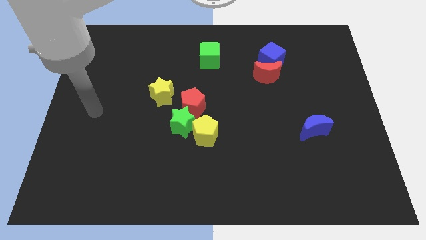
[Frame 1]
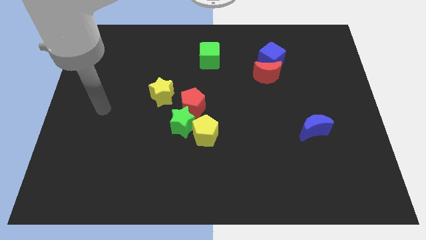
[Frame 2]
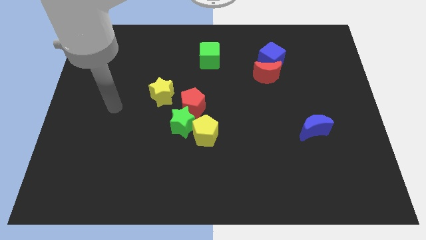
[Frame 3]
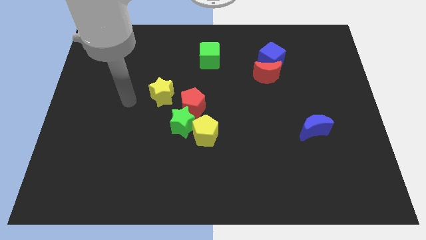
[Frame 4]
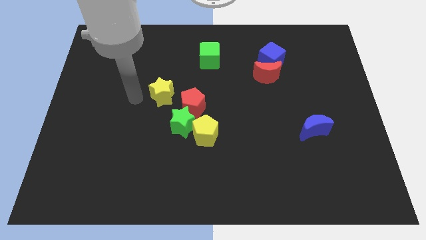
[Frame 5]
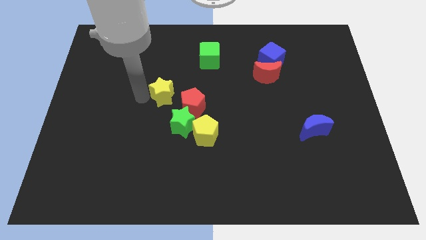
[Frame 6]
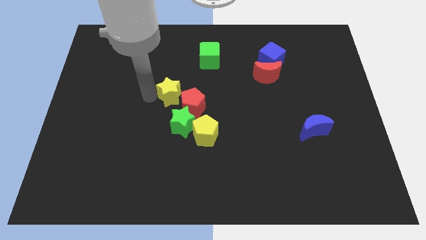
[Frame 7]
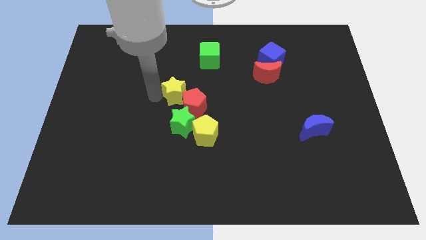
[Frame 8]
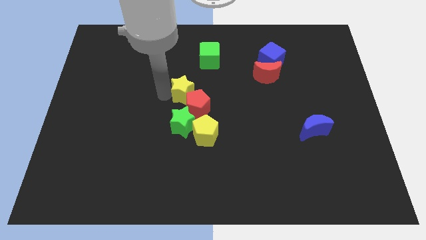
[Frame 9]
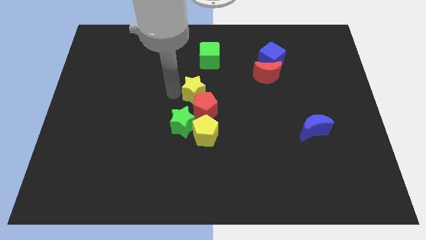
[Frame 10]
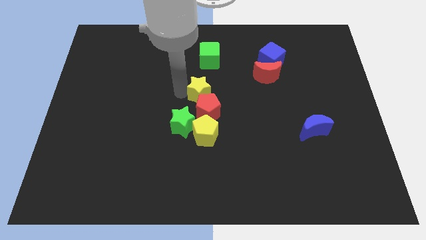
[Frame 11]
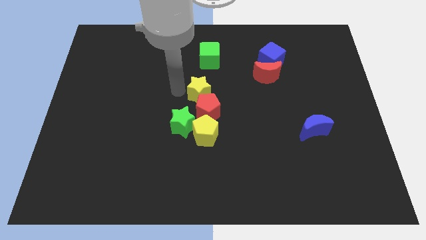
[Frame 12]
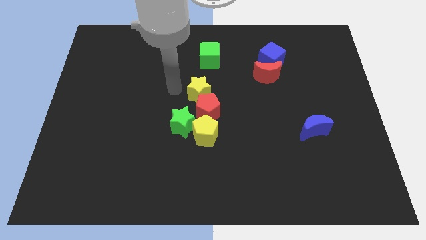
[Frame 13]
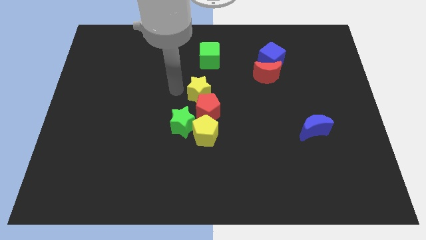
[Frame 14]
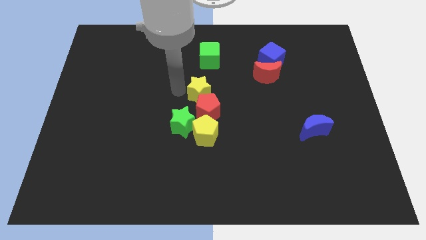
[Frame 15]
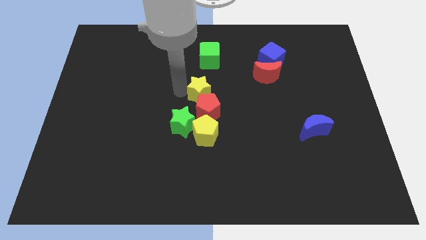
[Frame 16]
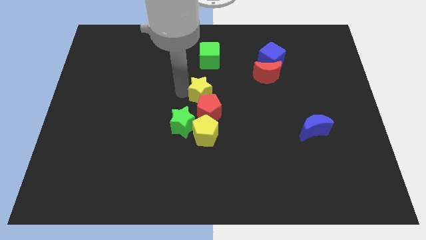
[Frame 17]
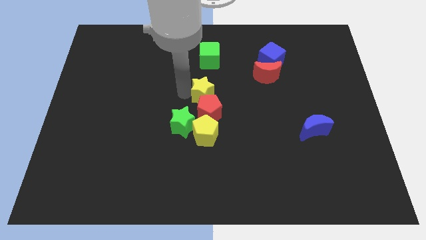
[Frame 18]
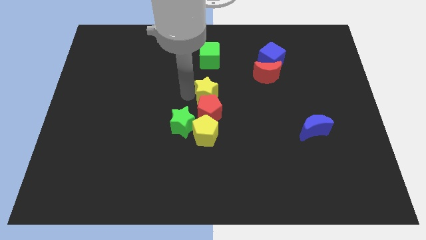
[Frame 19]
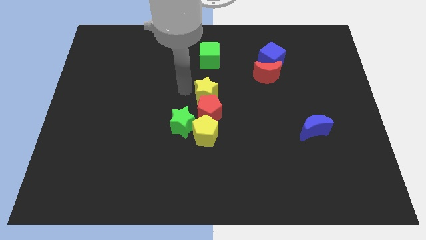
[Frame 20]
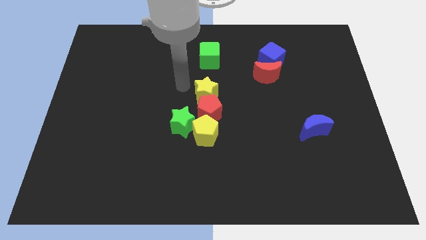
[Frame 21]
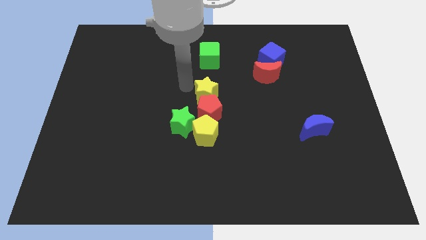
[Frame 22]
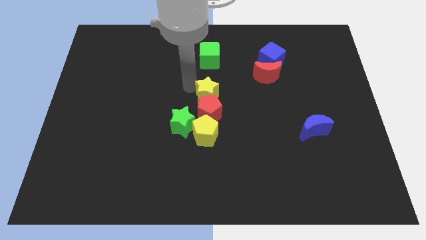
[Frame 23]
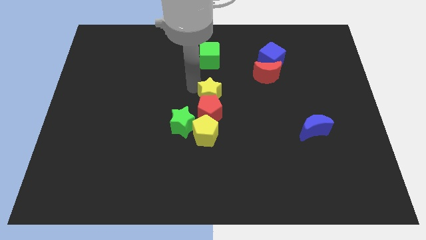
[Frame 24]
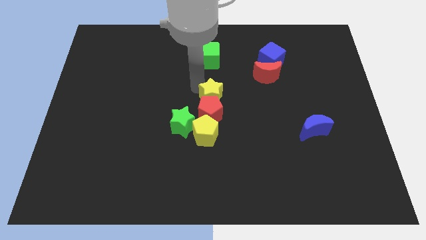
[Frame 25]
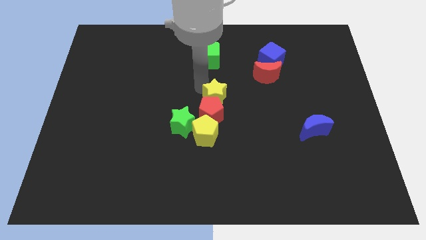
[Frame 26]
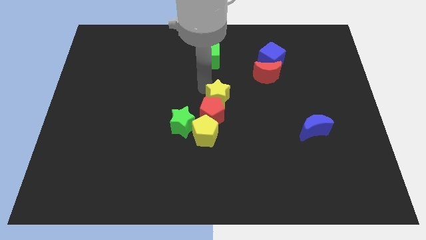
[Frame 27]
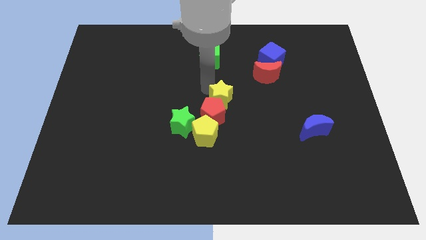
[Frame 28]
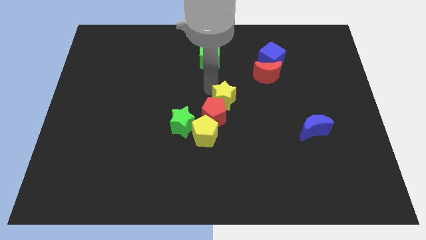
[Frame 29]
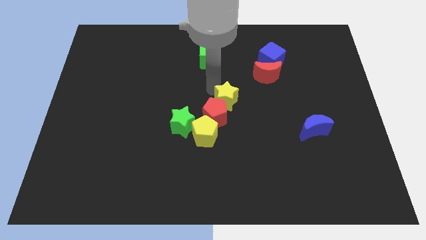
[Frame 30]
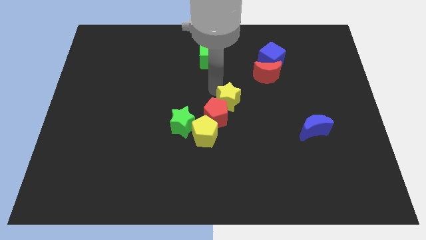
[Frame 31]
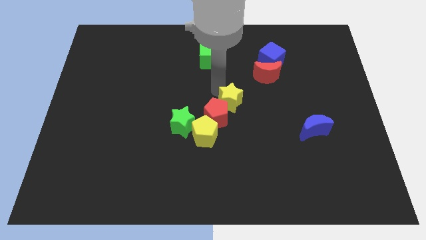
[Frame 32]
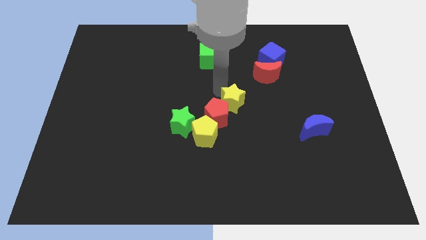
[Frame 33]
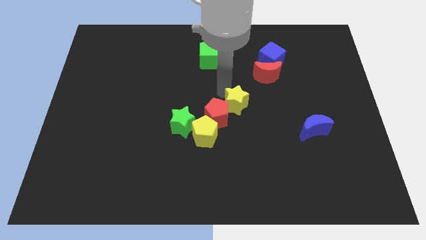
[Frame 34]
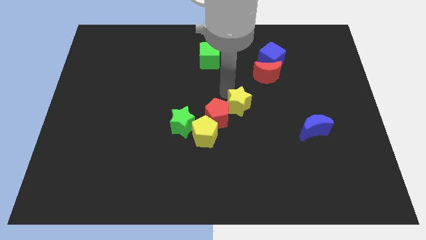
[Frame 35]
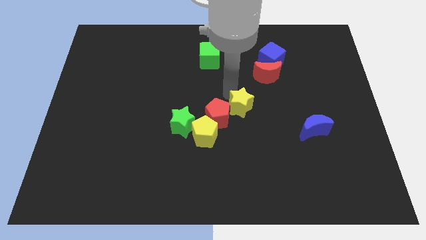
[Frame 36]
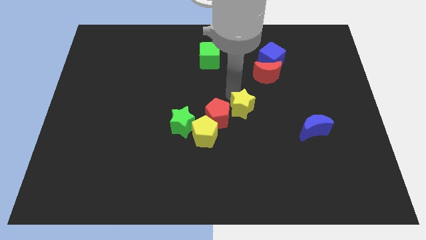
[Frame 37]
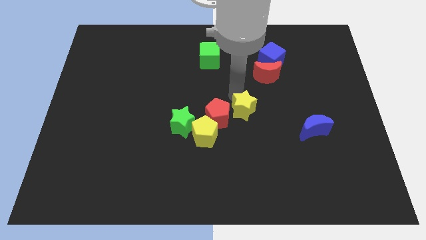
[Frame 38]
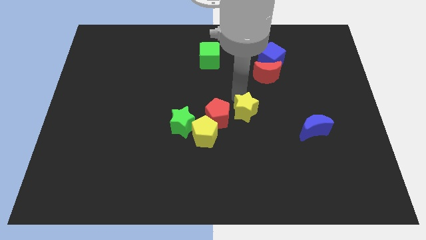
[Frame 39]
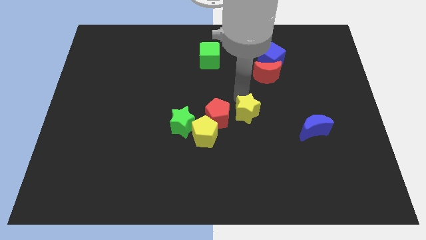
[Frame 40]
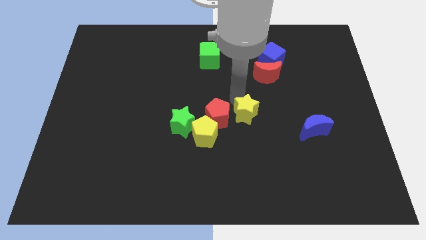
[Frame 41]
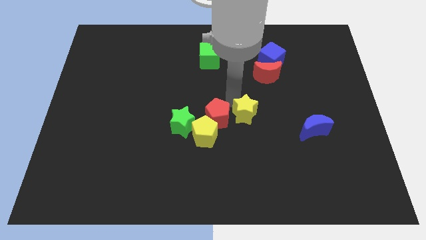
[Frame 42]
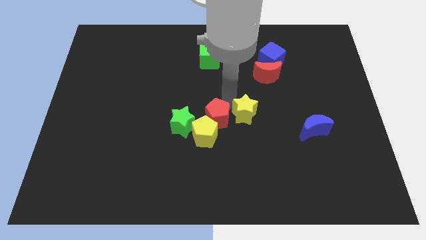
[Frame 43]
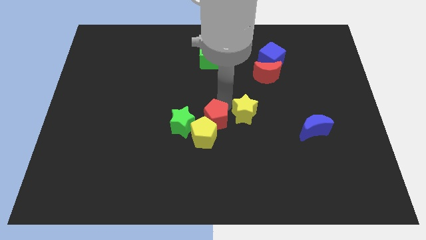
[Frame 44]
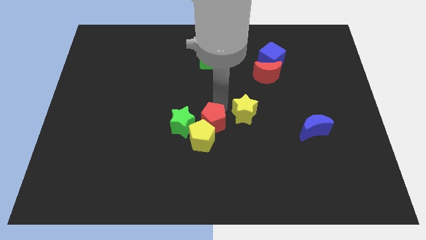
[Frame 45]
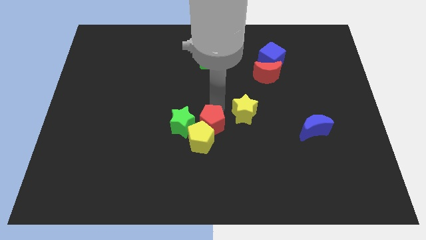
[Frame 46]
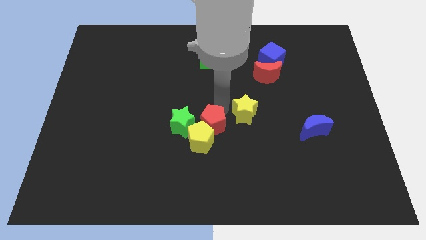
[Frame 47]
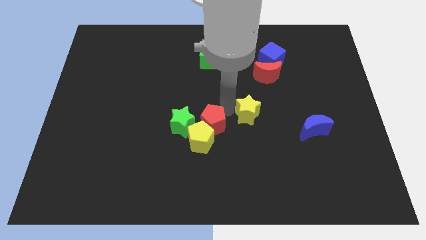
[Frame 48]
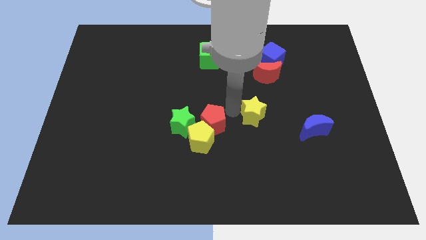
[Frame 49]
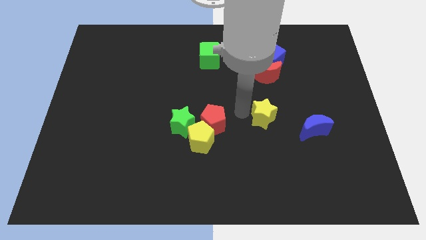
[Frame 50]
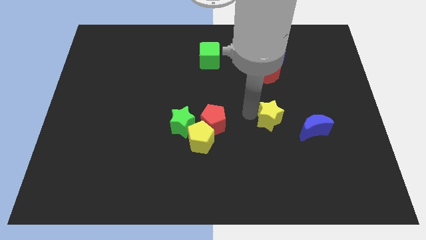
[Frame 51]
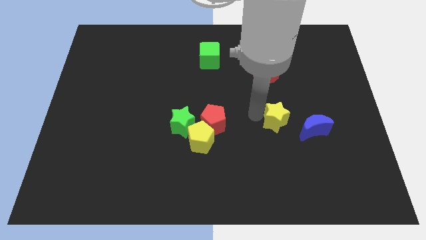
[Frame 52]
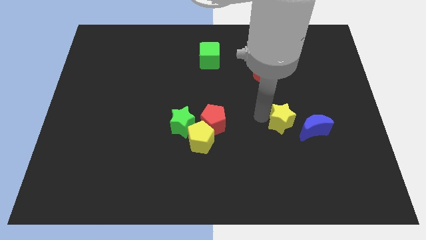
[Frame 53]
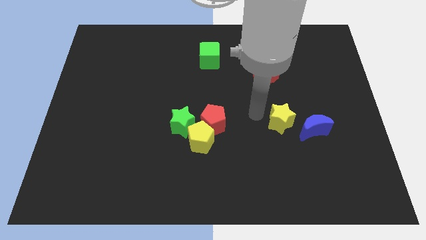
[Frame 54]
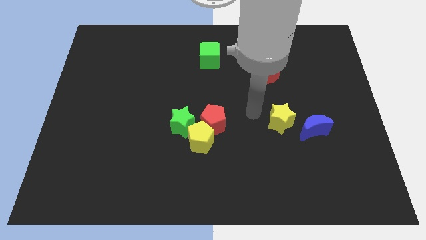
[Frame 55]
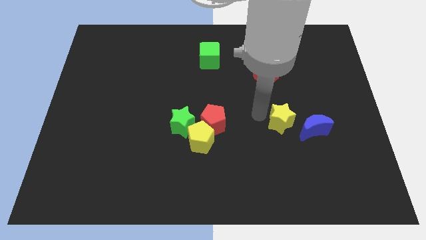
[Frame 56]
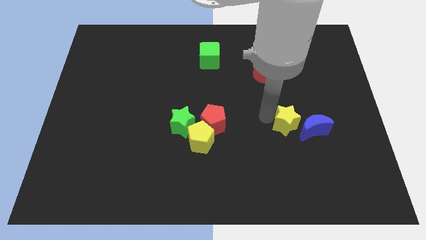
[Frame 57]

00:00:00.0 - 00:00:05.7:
slide the yellow star towards the blue moon

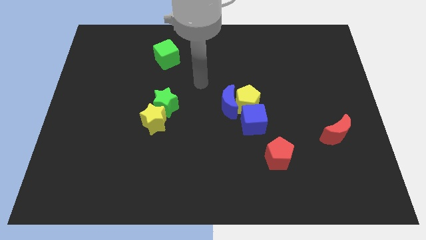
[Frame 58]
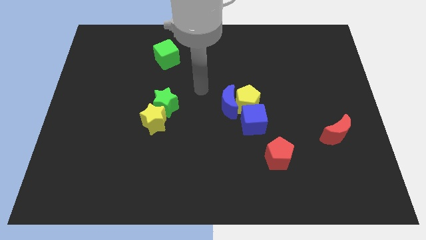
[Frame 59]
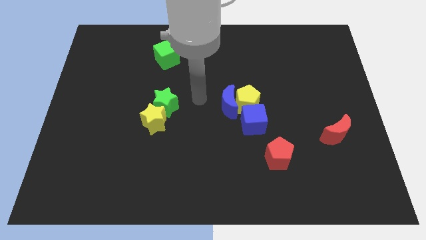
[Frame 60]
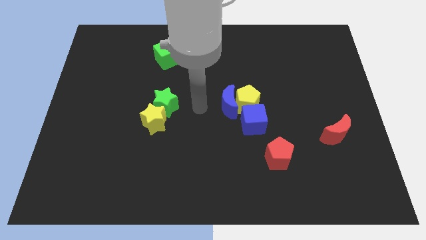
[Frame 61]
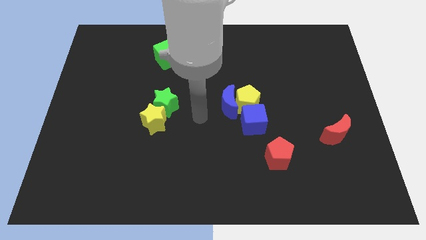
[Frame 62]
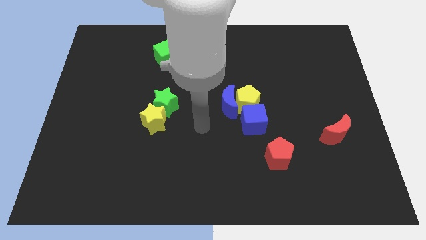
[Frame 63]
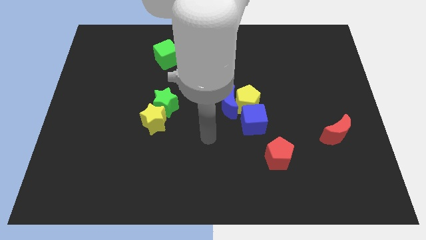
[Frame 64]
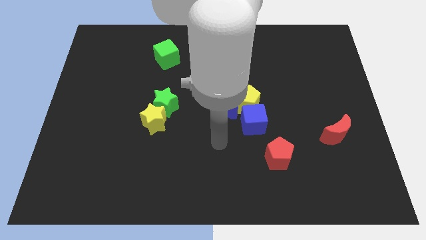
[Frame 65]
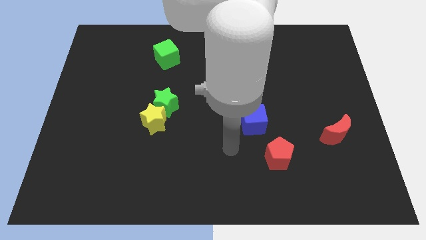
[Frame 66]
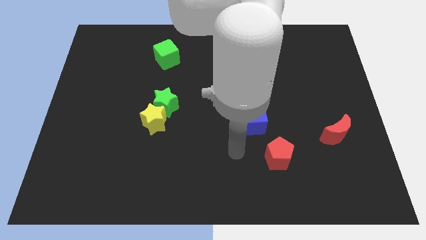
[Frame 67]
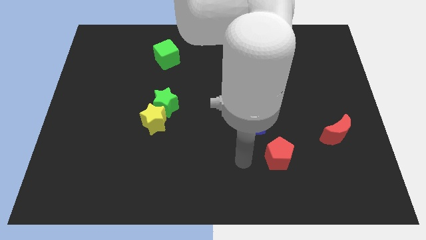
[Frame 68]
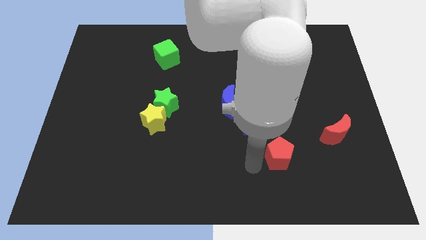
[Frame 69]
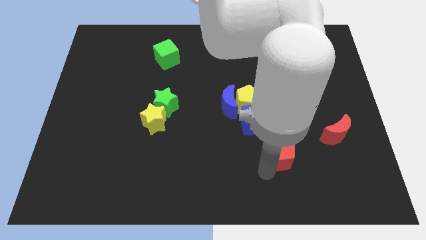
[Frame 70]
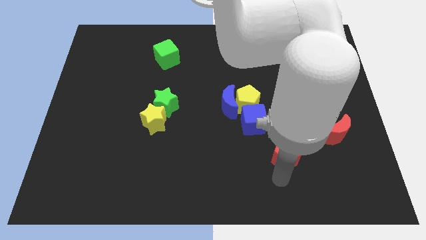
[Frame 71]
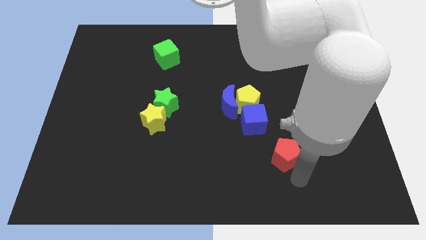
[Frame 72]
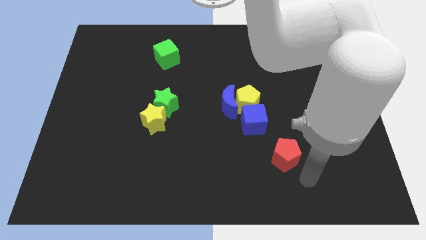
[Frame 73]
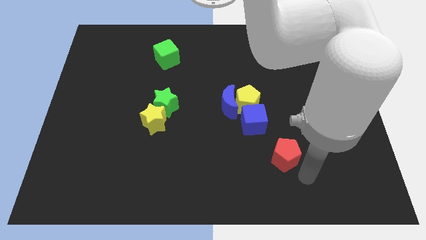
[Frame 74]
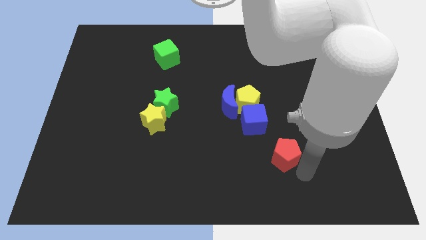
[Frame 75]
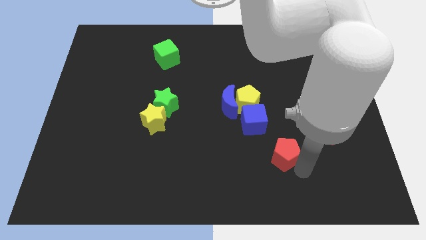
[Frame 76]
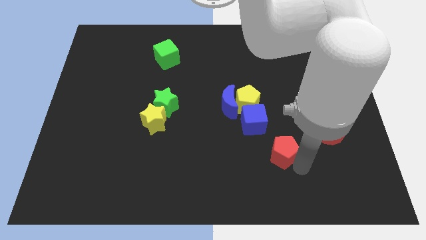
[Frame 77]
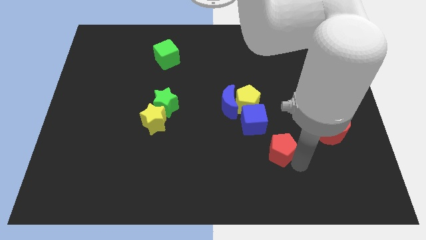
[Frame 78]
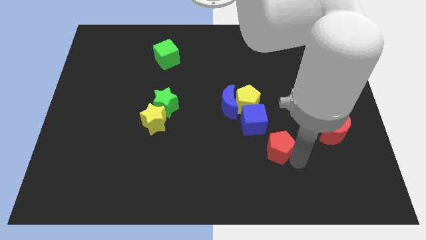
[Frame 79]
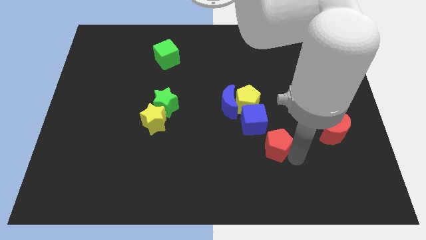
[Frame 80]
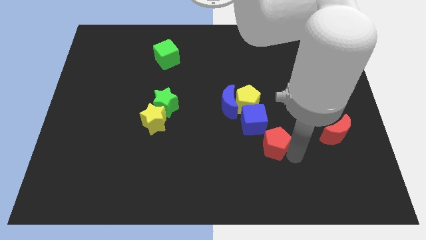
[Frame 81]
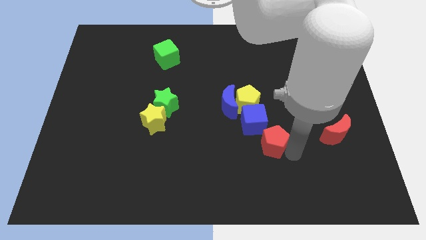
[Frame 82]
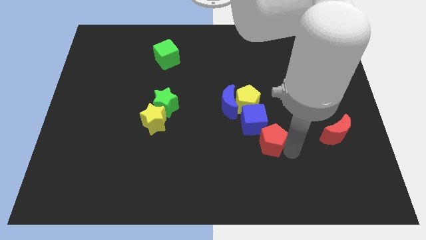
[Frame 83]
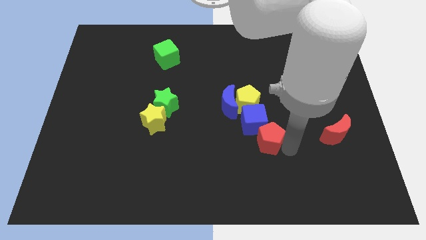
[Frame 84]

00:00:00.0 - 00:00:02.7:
slide the red pentagon to the blue cube
